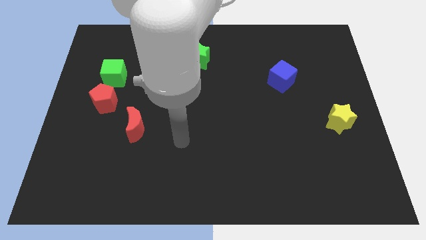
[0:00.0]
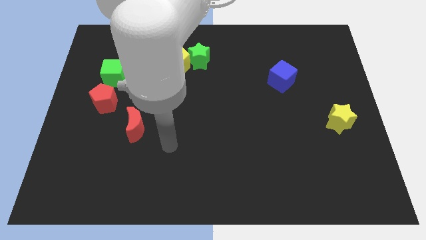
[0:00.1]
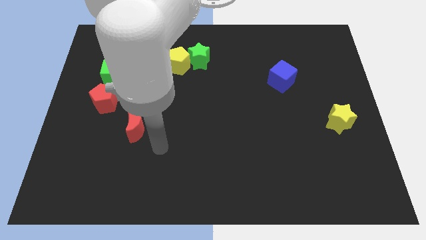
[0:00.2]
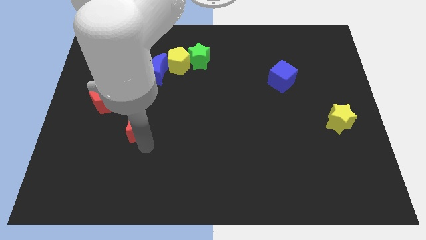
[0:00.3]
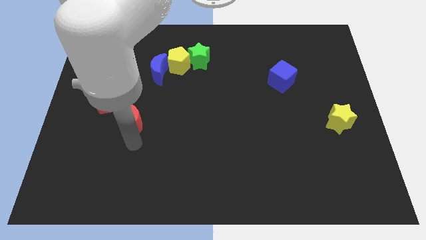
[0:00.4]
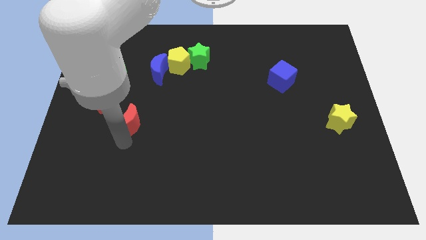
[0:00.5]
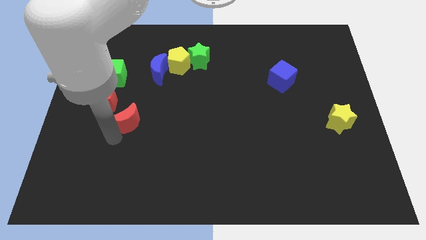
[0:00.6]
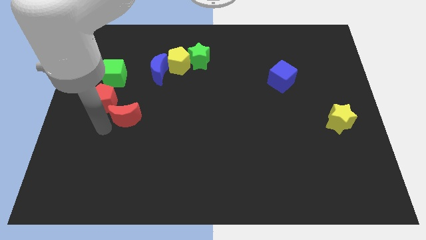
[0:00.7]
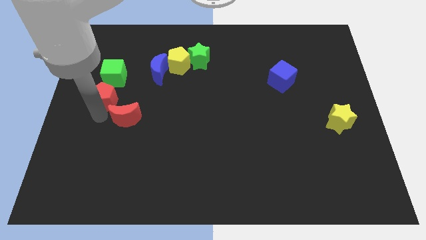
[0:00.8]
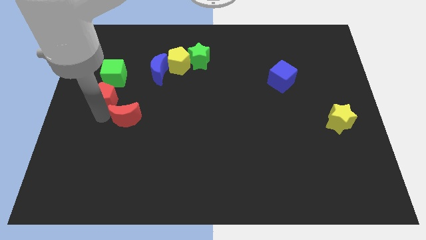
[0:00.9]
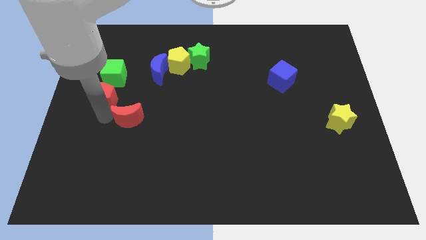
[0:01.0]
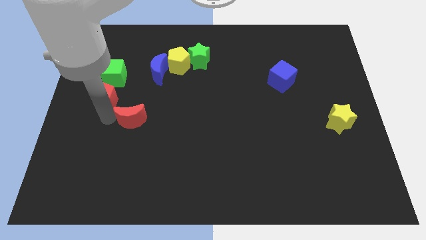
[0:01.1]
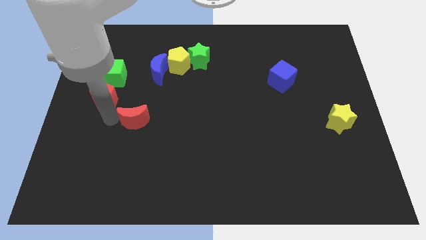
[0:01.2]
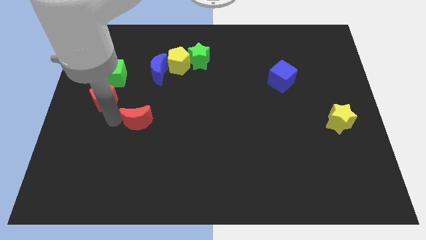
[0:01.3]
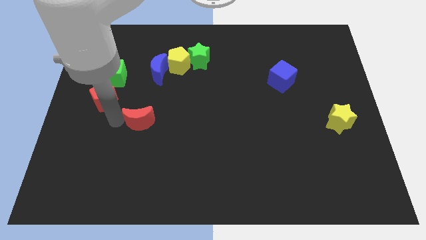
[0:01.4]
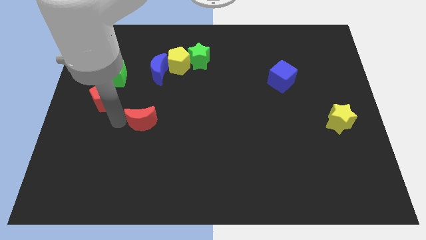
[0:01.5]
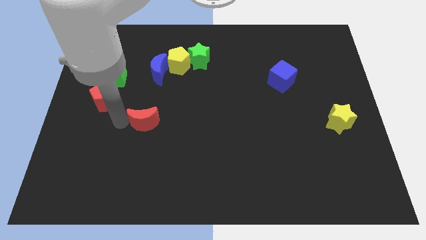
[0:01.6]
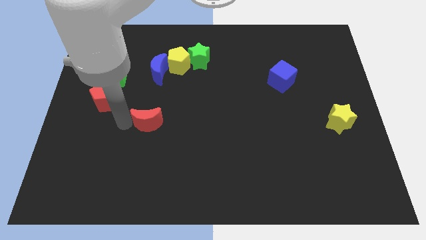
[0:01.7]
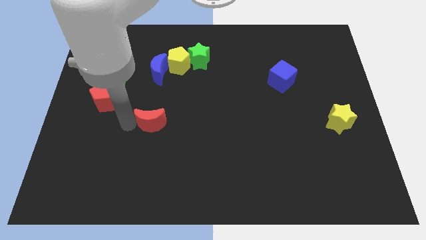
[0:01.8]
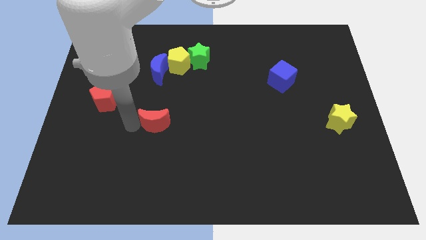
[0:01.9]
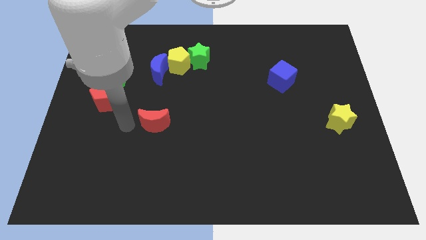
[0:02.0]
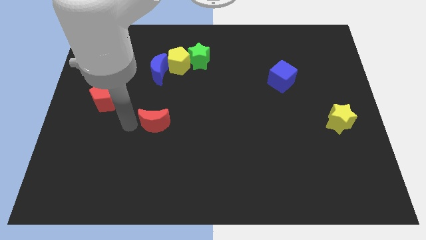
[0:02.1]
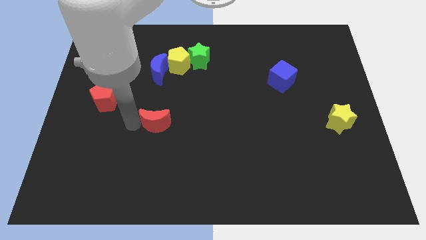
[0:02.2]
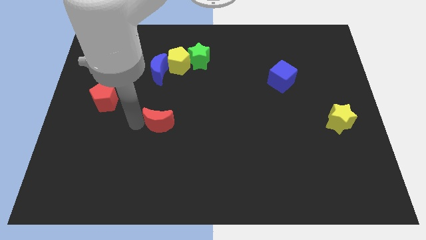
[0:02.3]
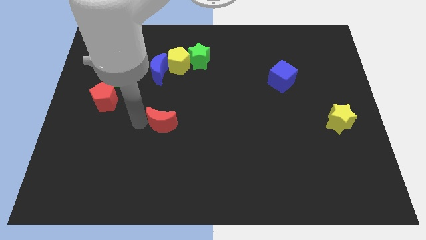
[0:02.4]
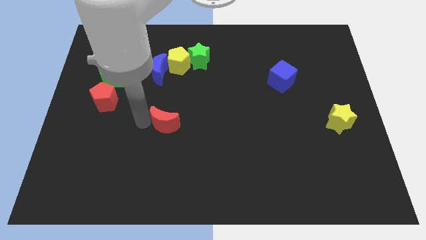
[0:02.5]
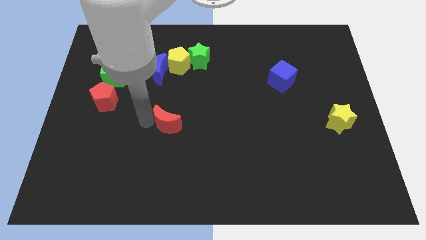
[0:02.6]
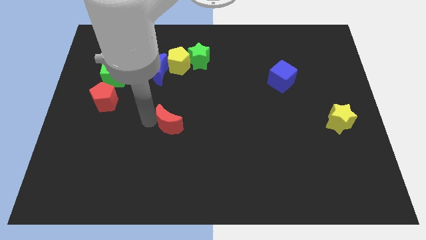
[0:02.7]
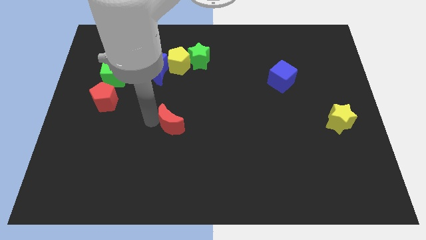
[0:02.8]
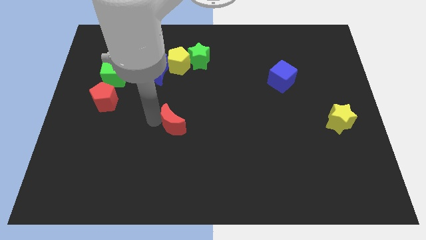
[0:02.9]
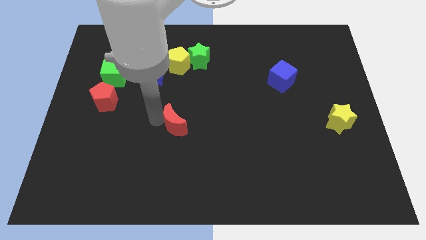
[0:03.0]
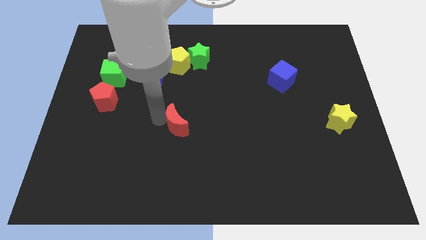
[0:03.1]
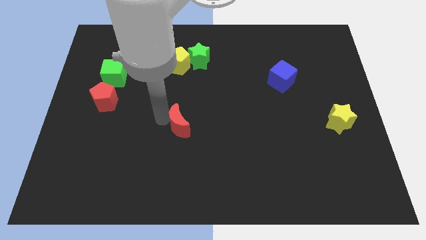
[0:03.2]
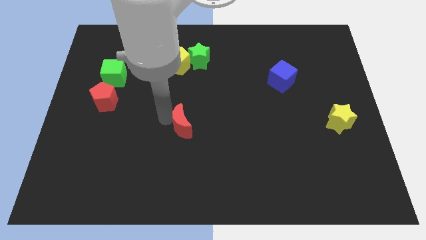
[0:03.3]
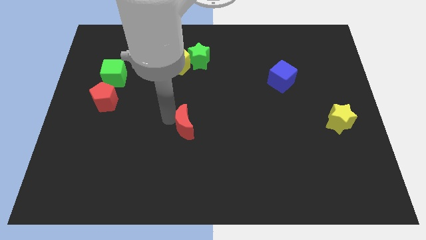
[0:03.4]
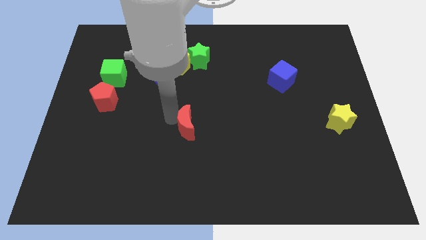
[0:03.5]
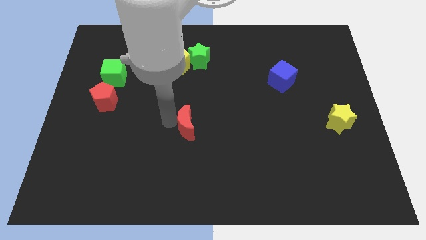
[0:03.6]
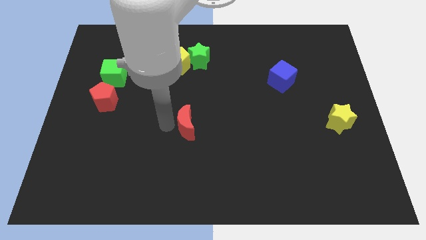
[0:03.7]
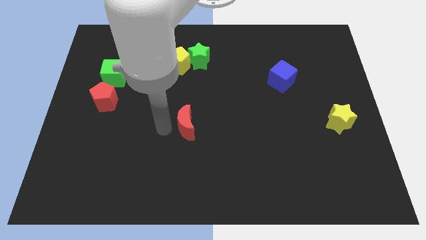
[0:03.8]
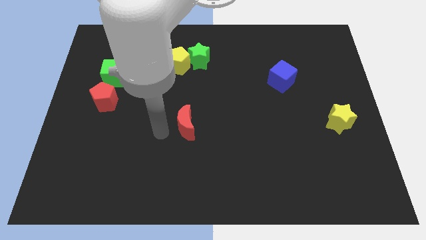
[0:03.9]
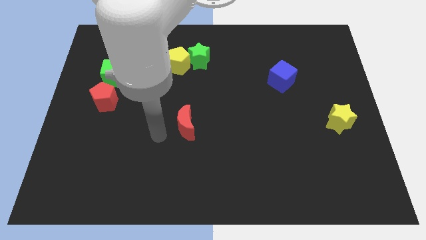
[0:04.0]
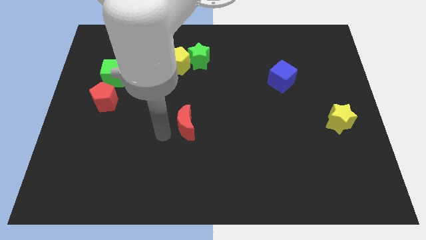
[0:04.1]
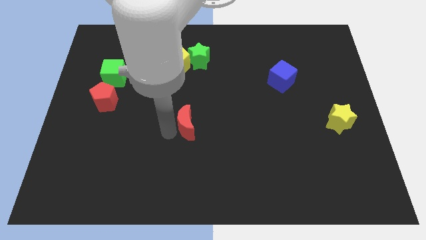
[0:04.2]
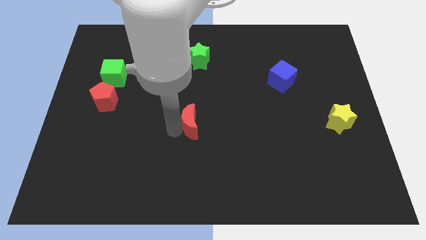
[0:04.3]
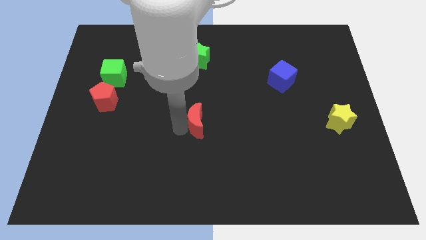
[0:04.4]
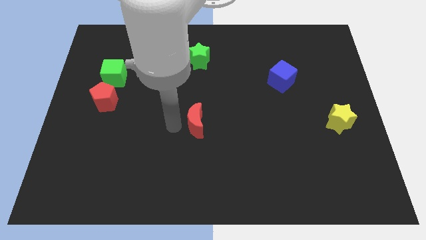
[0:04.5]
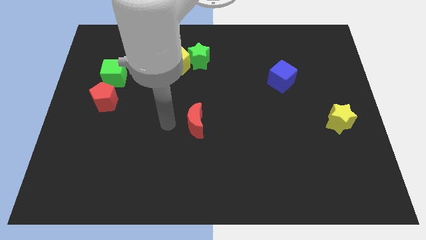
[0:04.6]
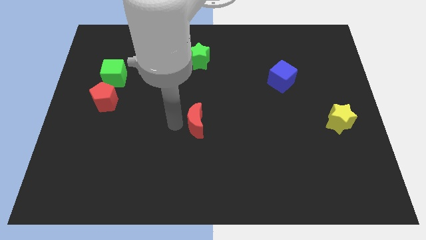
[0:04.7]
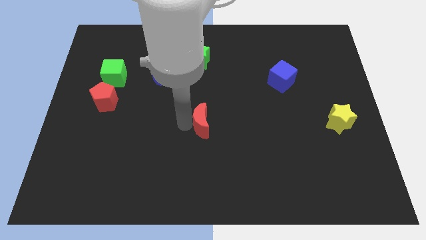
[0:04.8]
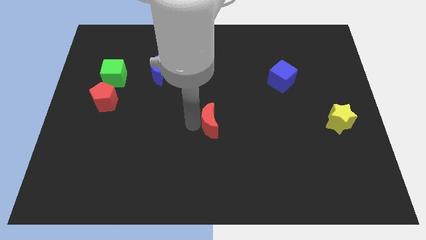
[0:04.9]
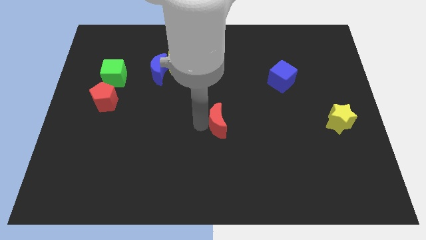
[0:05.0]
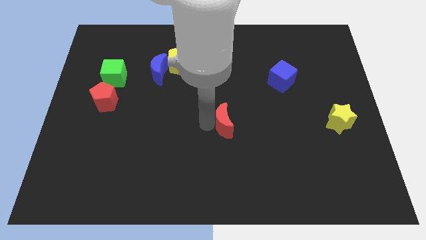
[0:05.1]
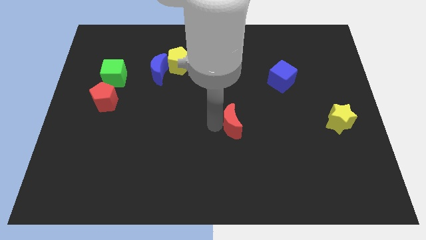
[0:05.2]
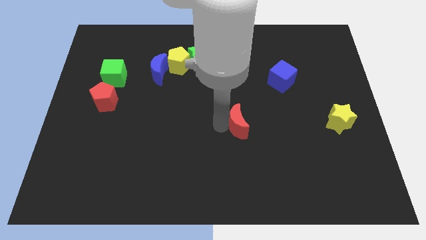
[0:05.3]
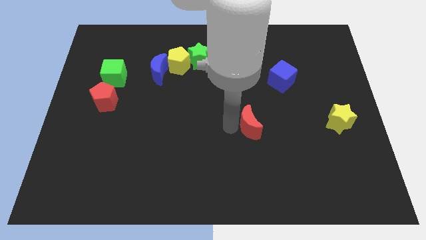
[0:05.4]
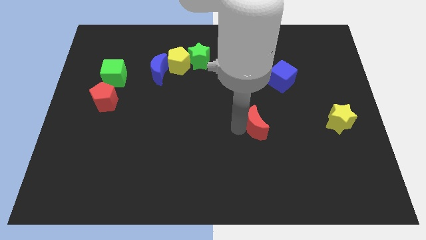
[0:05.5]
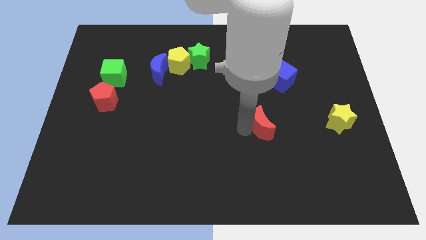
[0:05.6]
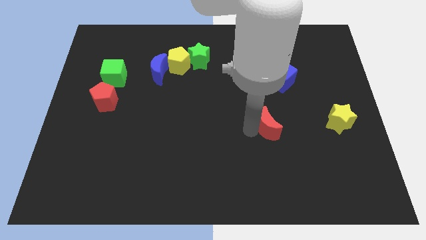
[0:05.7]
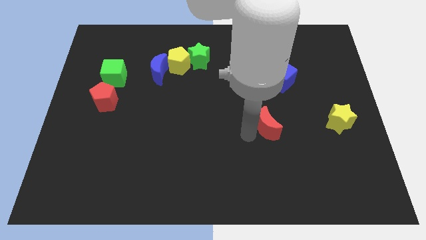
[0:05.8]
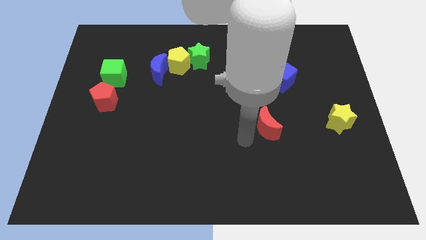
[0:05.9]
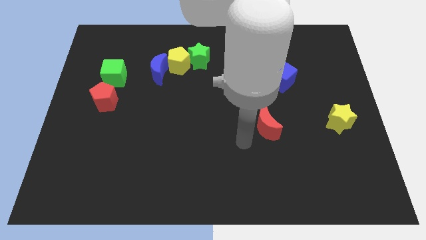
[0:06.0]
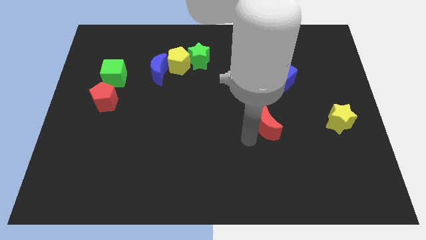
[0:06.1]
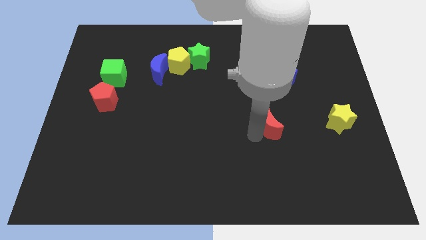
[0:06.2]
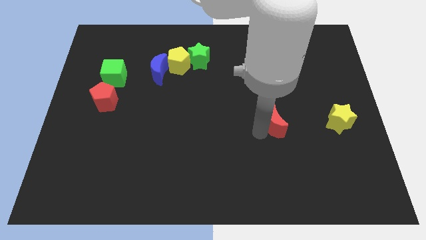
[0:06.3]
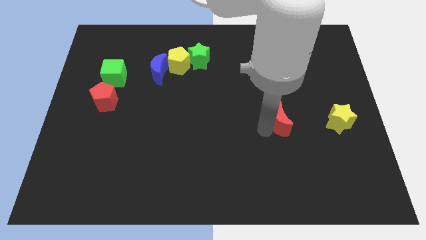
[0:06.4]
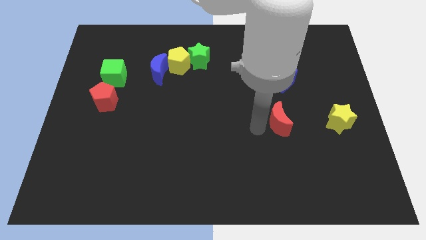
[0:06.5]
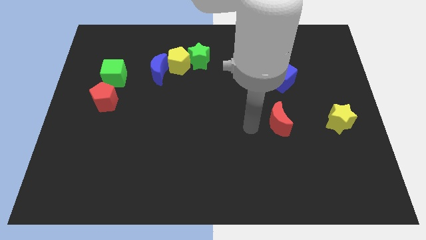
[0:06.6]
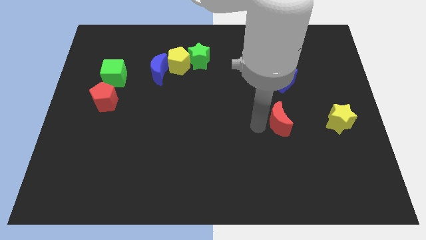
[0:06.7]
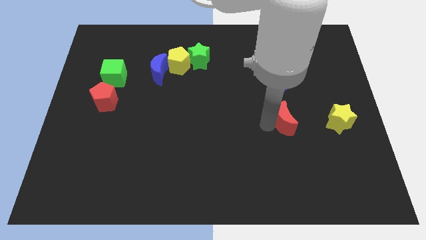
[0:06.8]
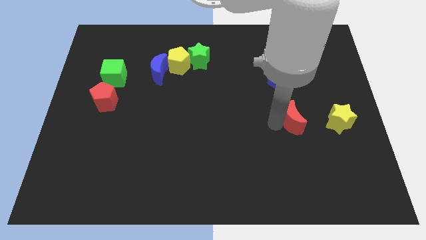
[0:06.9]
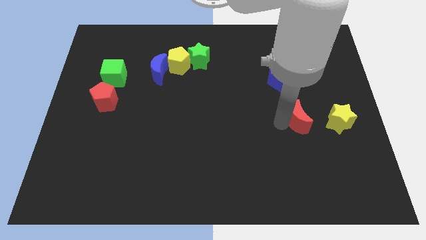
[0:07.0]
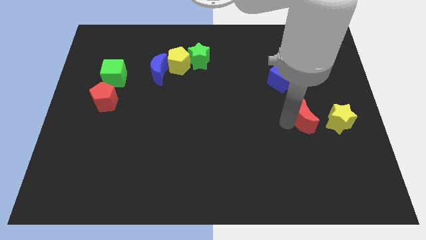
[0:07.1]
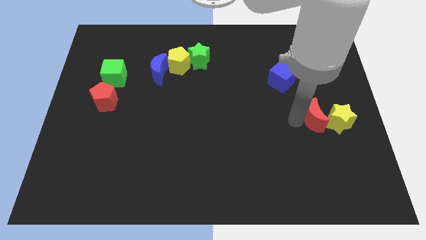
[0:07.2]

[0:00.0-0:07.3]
put the red moon to the yellow star

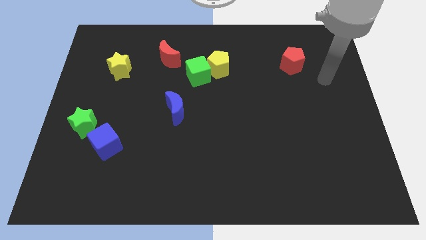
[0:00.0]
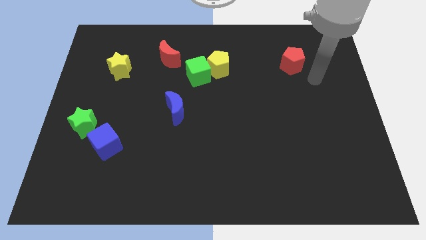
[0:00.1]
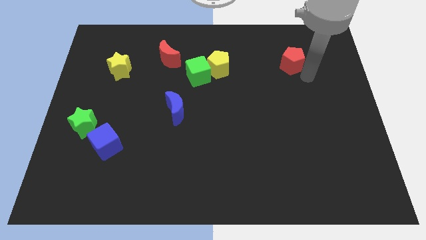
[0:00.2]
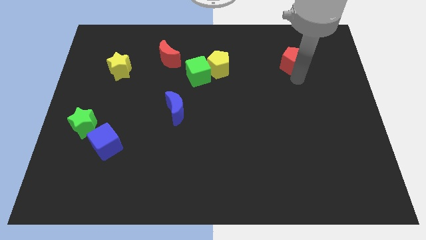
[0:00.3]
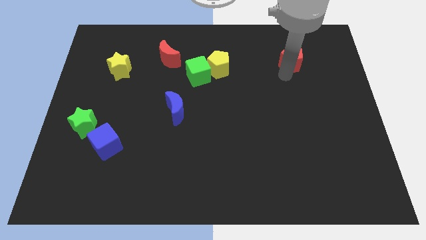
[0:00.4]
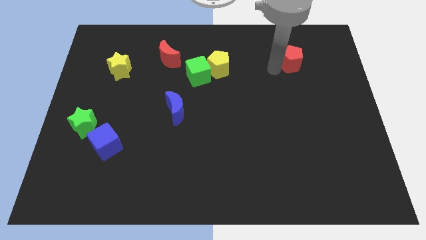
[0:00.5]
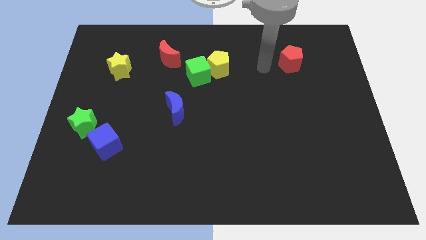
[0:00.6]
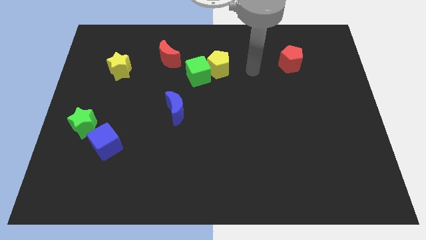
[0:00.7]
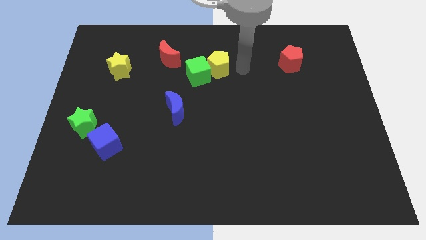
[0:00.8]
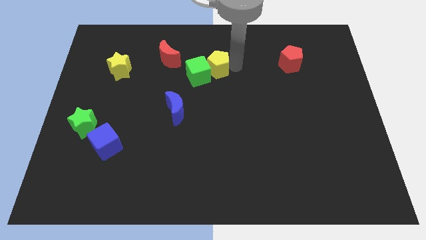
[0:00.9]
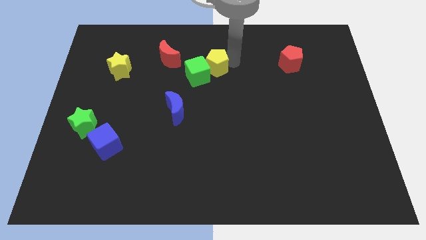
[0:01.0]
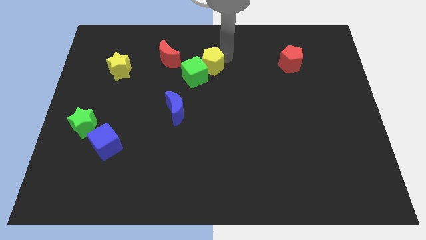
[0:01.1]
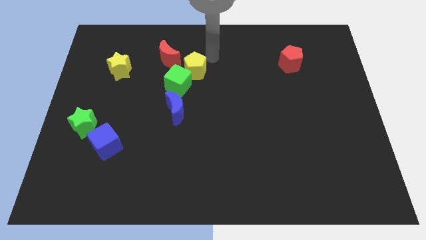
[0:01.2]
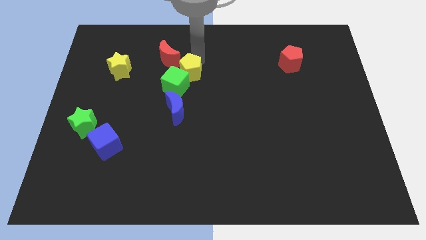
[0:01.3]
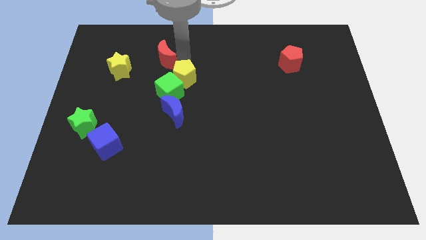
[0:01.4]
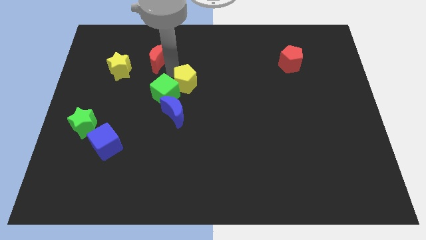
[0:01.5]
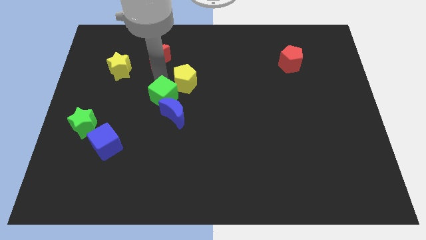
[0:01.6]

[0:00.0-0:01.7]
slide the green cube close to the blue moon
